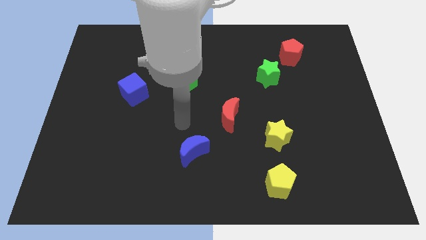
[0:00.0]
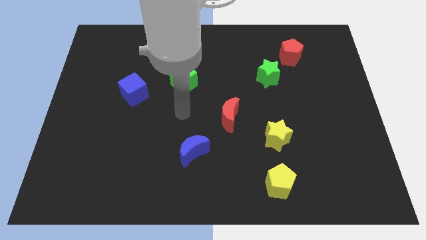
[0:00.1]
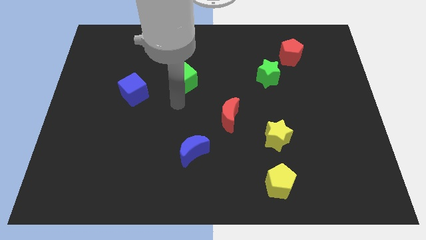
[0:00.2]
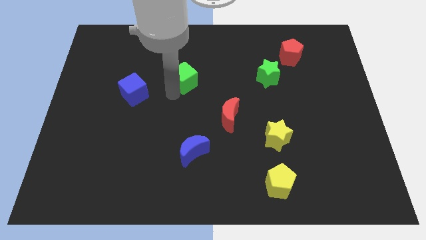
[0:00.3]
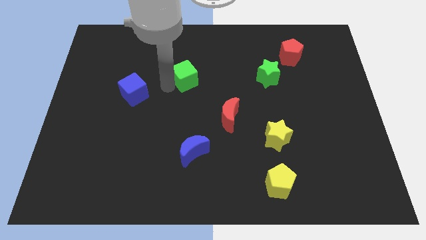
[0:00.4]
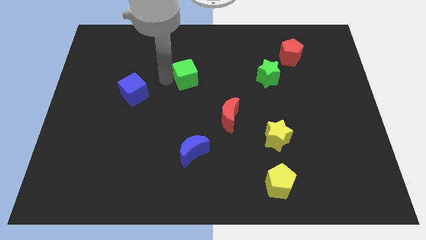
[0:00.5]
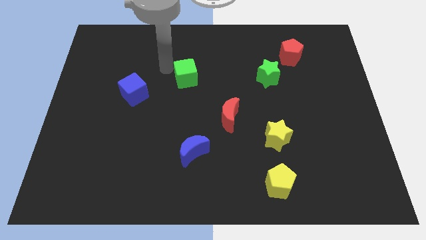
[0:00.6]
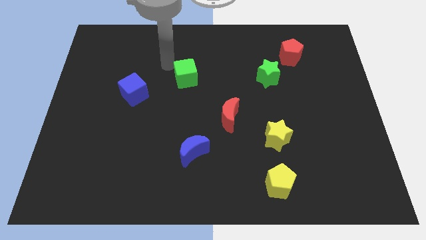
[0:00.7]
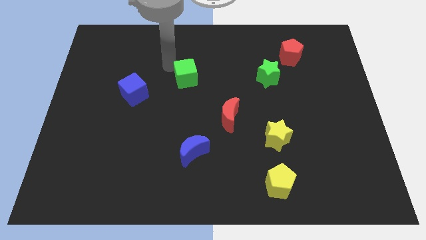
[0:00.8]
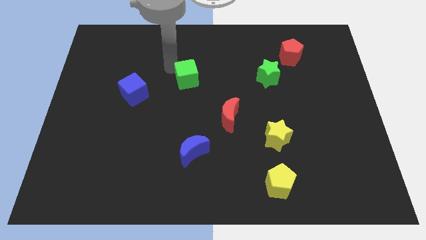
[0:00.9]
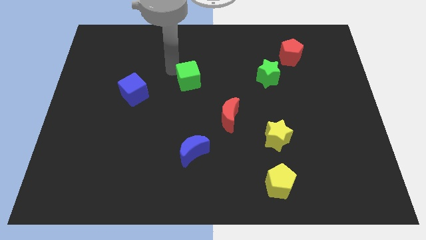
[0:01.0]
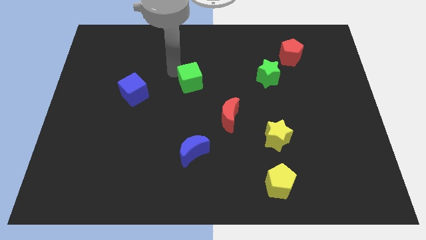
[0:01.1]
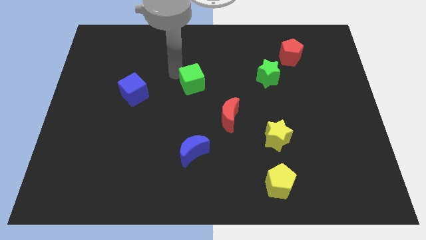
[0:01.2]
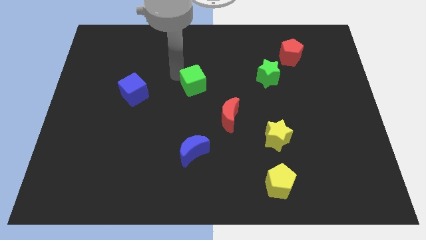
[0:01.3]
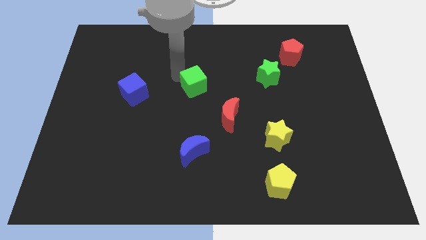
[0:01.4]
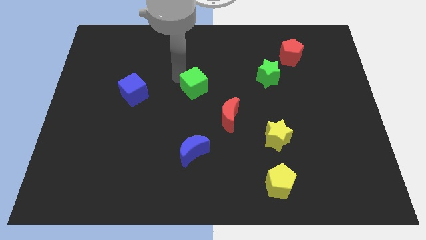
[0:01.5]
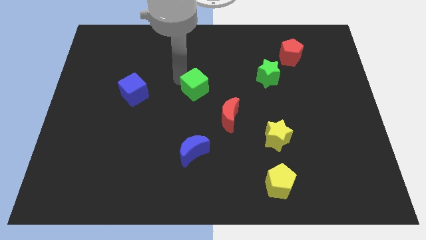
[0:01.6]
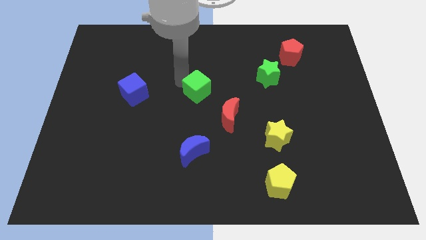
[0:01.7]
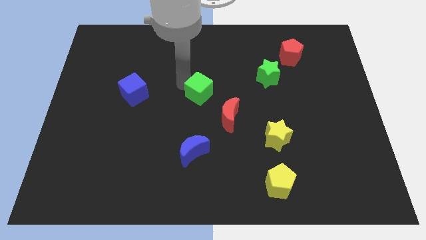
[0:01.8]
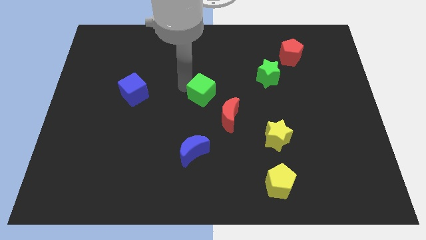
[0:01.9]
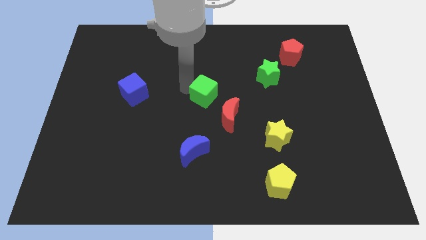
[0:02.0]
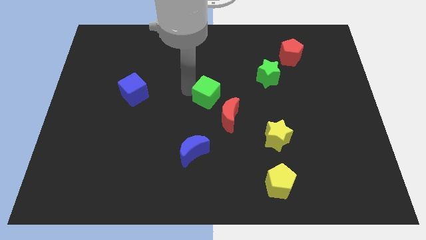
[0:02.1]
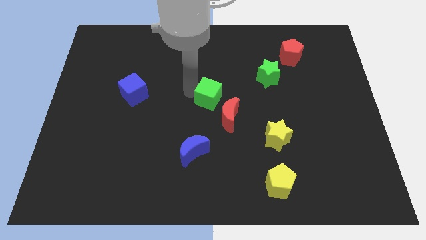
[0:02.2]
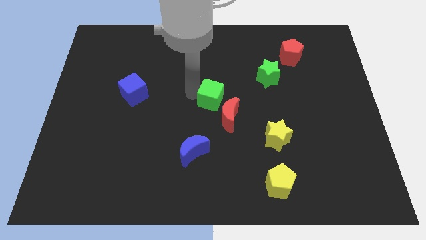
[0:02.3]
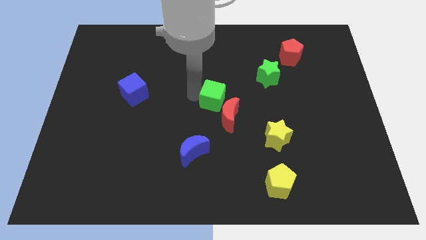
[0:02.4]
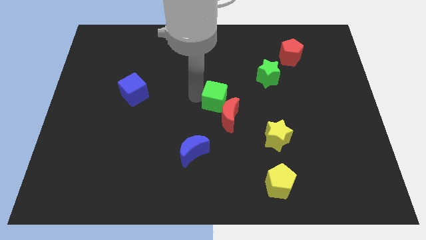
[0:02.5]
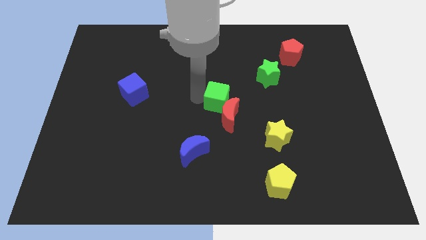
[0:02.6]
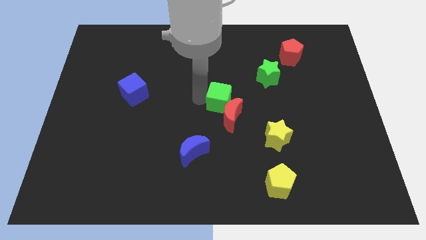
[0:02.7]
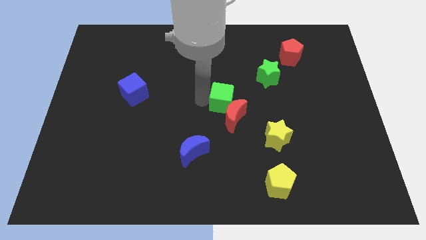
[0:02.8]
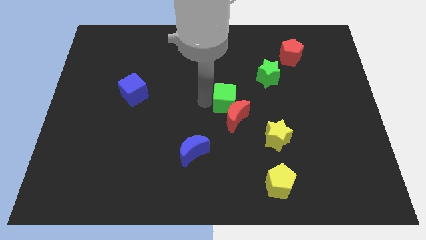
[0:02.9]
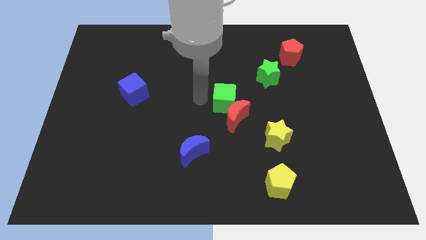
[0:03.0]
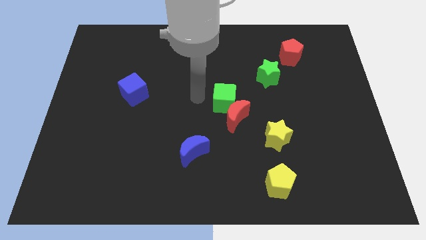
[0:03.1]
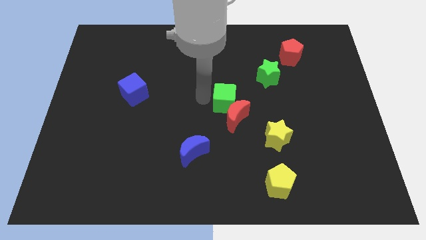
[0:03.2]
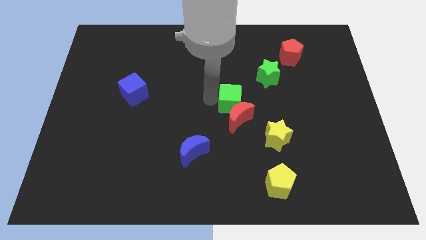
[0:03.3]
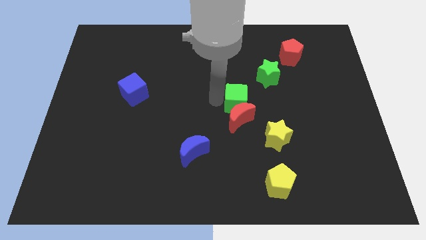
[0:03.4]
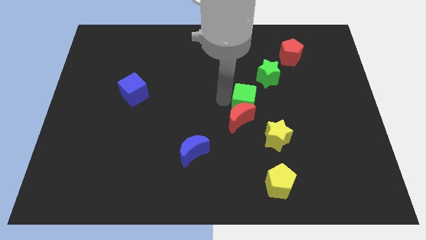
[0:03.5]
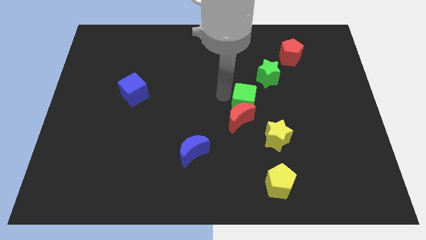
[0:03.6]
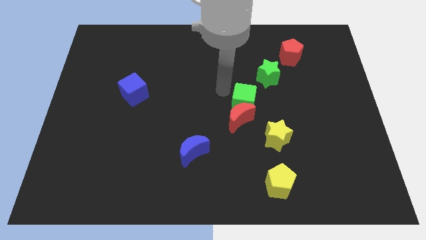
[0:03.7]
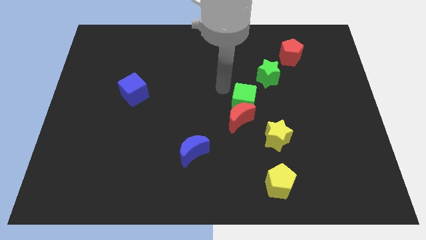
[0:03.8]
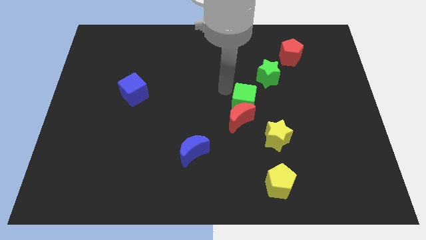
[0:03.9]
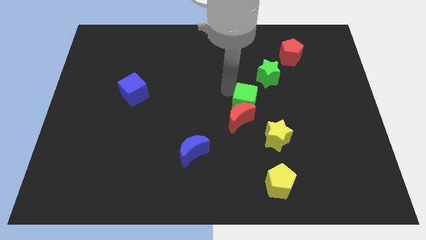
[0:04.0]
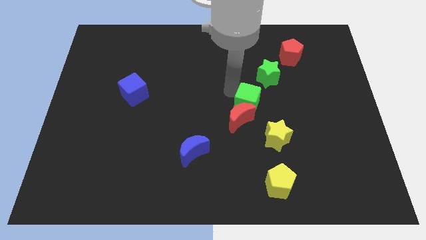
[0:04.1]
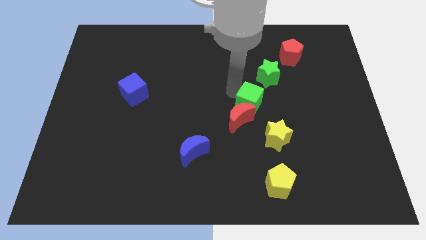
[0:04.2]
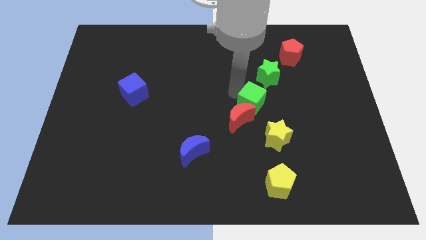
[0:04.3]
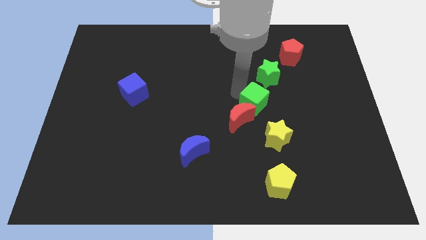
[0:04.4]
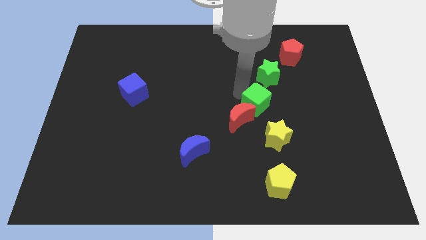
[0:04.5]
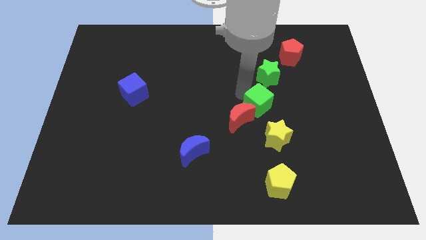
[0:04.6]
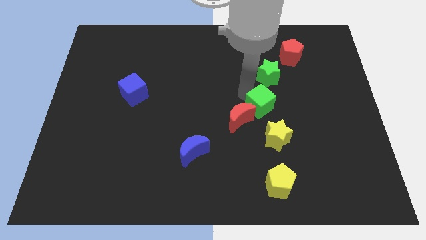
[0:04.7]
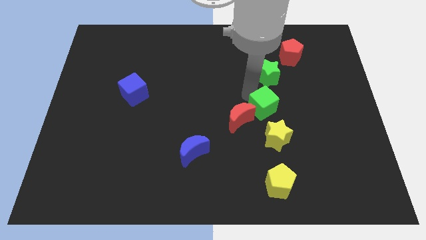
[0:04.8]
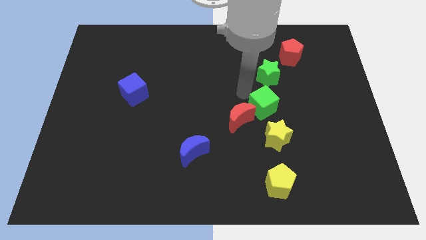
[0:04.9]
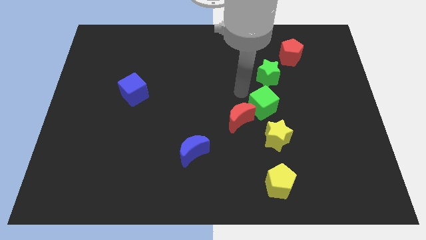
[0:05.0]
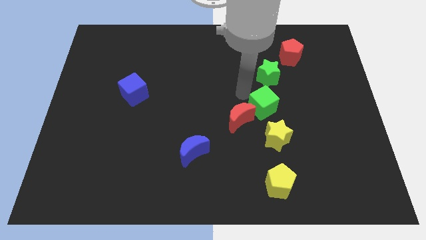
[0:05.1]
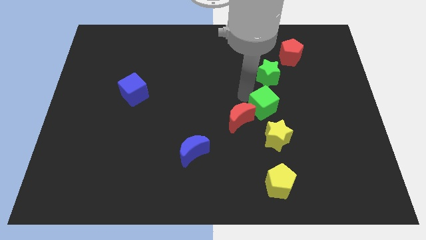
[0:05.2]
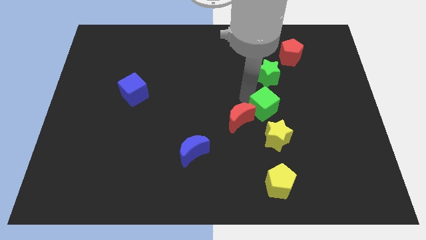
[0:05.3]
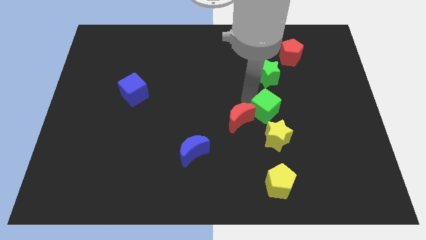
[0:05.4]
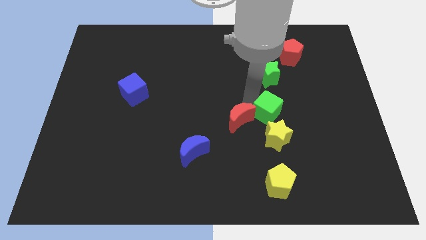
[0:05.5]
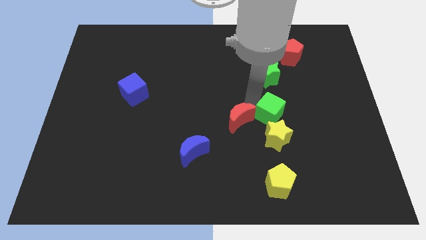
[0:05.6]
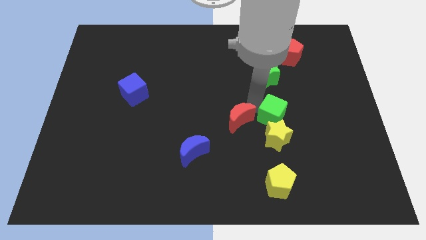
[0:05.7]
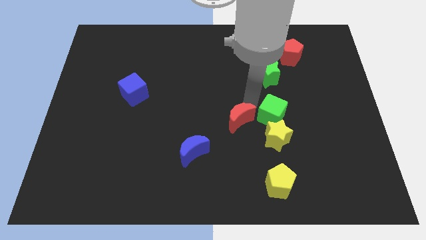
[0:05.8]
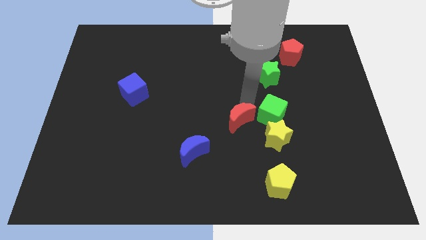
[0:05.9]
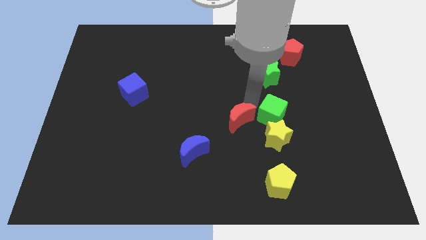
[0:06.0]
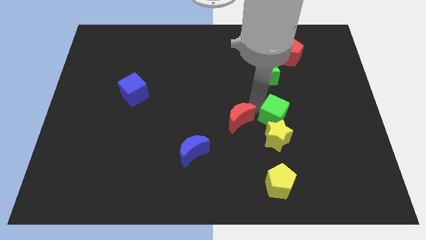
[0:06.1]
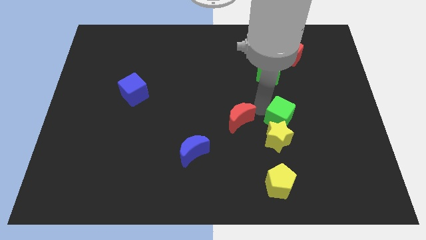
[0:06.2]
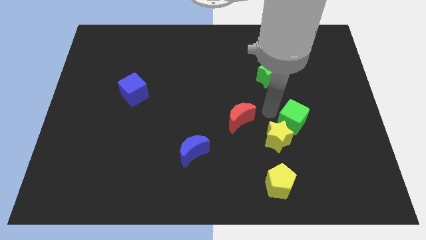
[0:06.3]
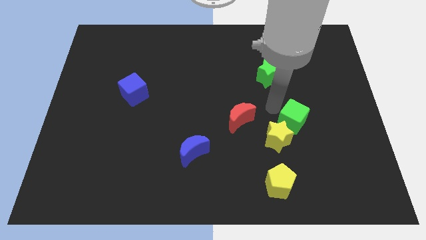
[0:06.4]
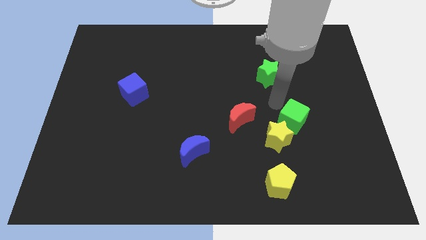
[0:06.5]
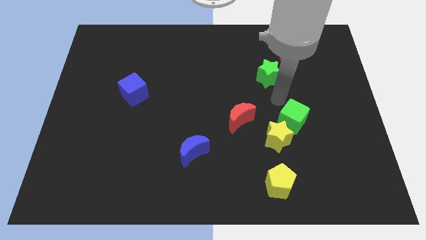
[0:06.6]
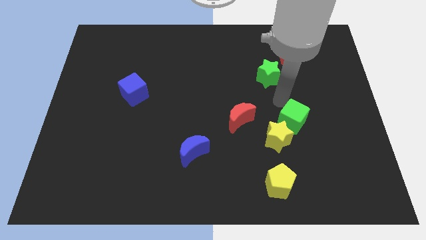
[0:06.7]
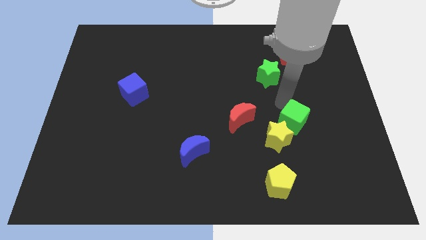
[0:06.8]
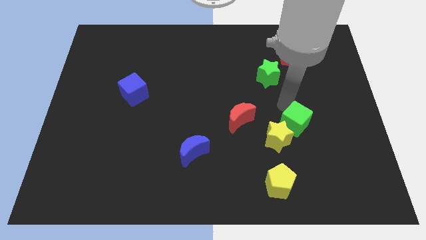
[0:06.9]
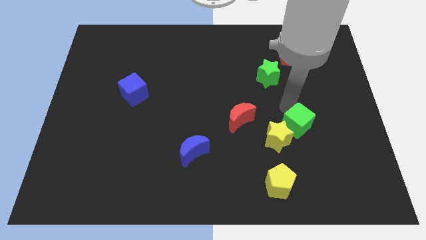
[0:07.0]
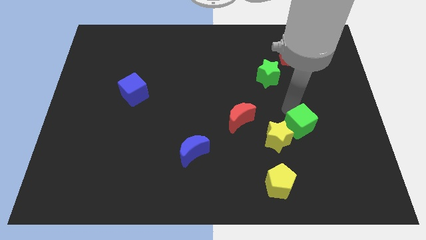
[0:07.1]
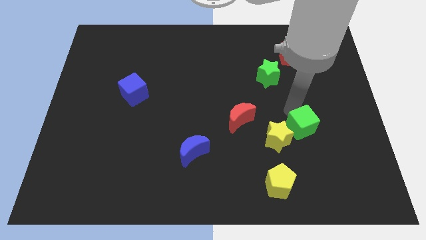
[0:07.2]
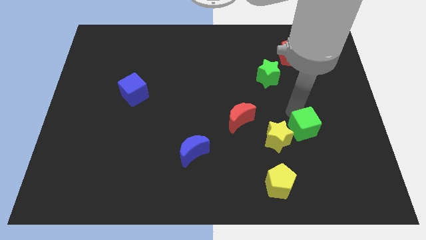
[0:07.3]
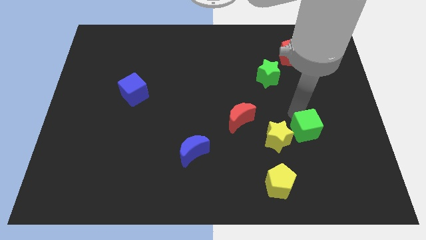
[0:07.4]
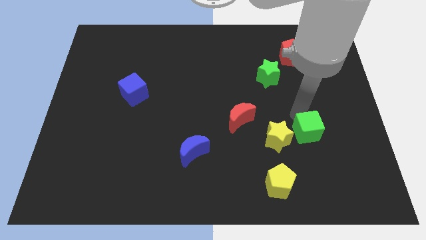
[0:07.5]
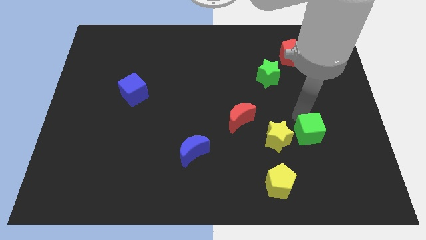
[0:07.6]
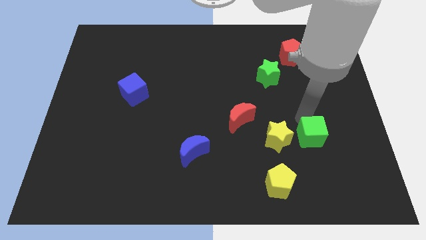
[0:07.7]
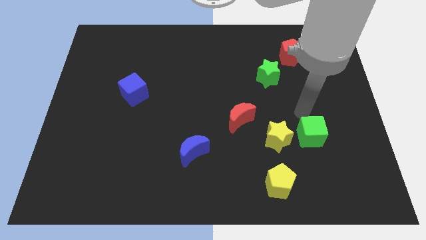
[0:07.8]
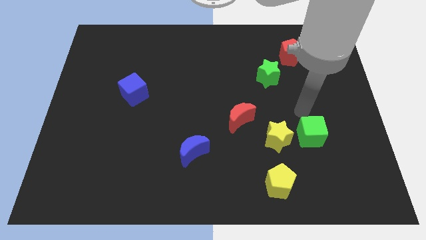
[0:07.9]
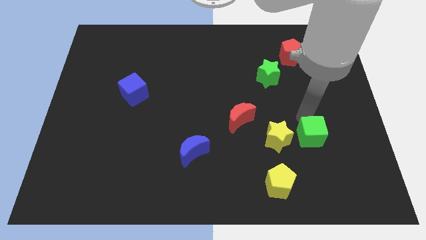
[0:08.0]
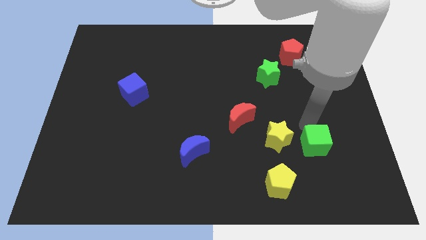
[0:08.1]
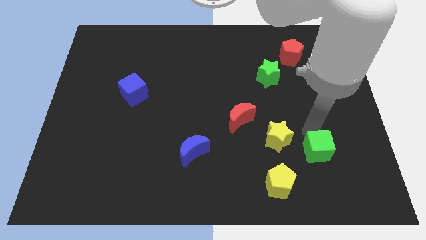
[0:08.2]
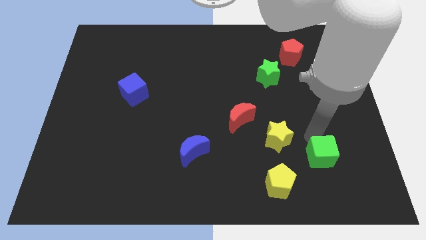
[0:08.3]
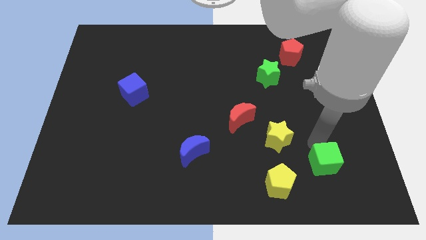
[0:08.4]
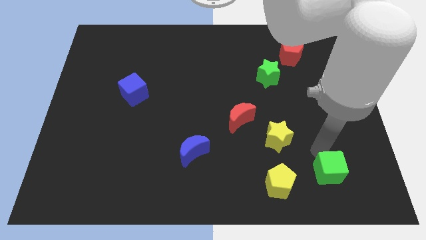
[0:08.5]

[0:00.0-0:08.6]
push the green cube to the right of the yellow pentagon
